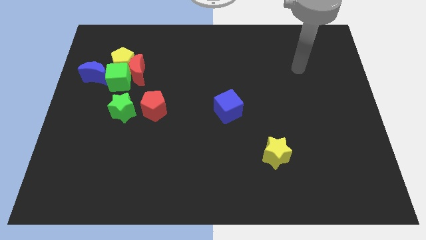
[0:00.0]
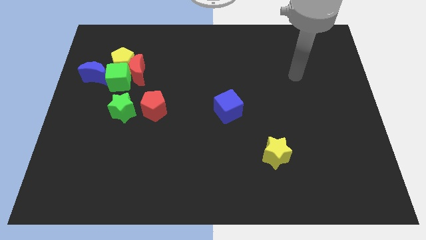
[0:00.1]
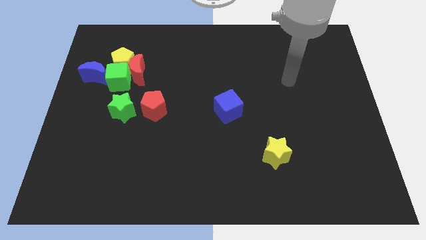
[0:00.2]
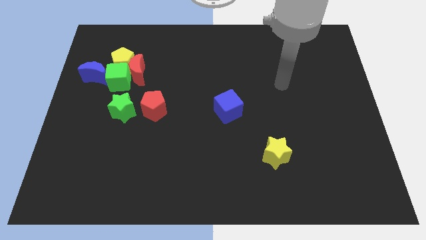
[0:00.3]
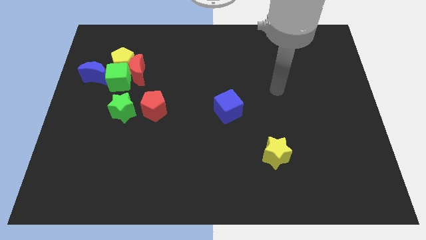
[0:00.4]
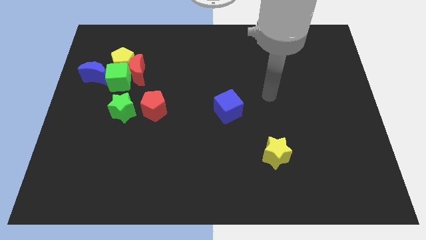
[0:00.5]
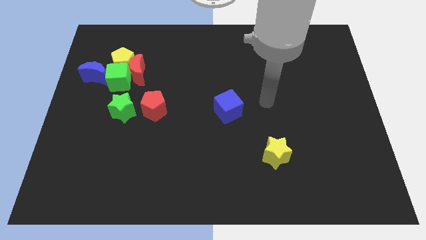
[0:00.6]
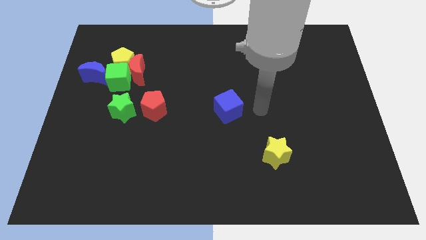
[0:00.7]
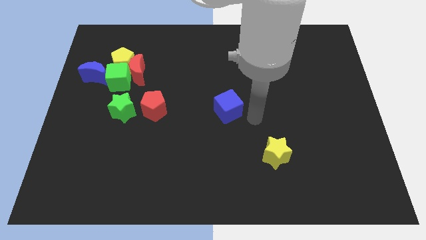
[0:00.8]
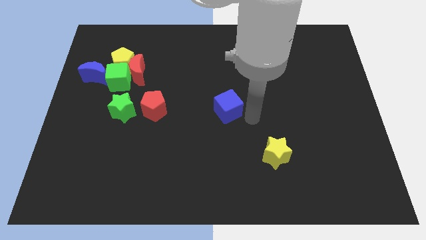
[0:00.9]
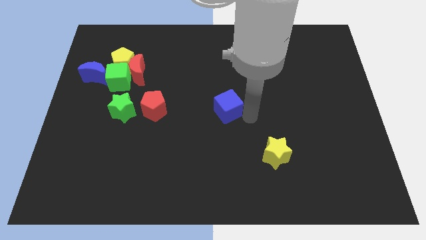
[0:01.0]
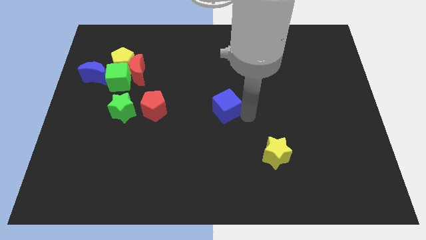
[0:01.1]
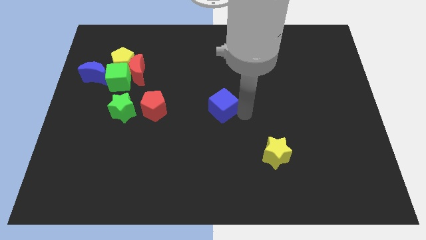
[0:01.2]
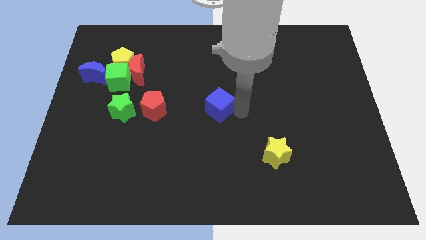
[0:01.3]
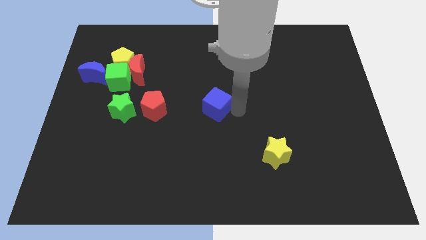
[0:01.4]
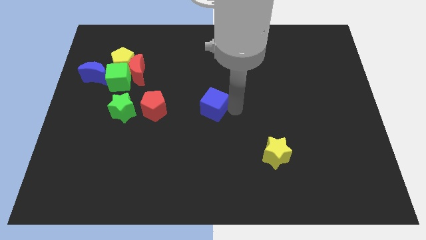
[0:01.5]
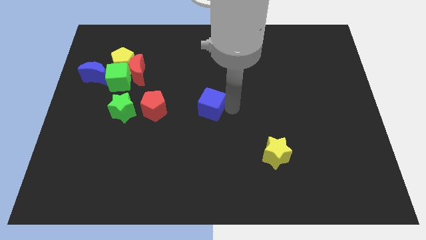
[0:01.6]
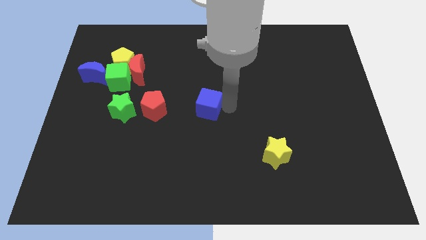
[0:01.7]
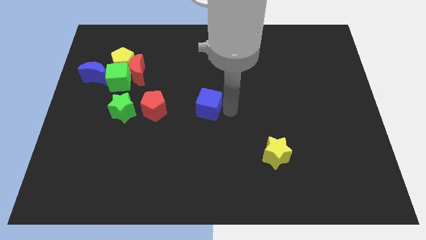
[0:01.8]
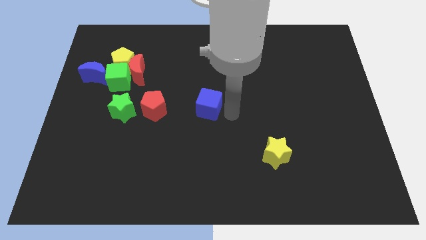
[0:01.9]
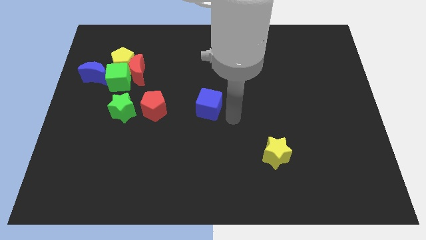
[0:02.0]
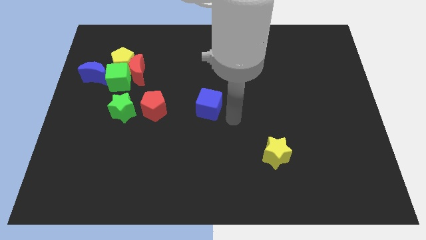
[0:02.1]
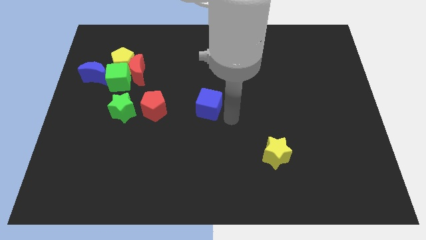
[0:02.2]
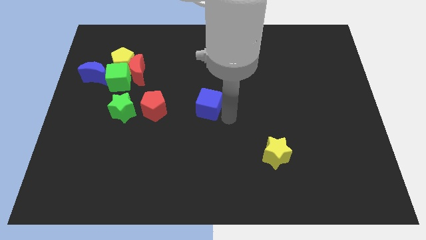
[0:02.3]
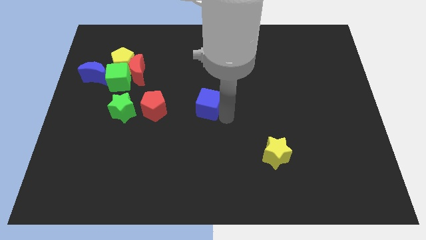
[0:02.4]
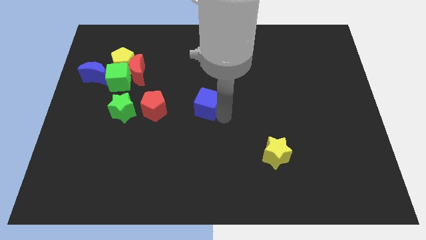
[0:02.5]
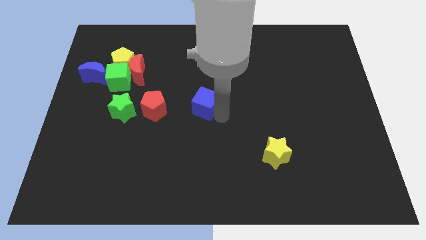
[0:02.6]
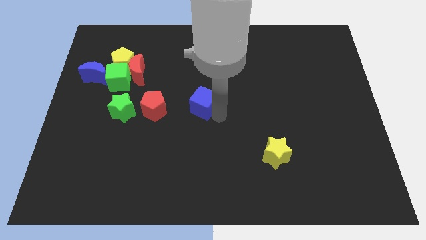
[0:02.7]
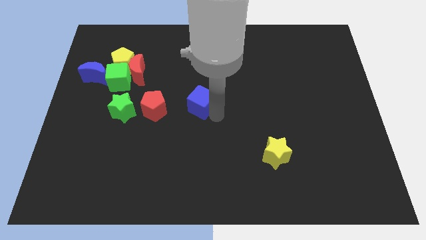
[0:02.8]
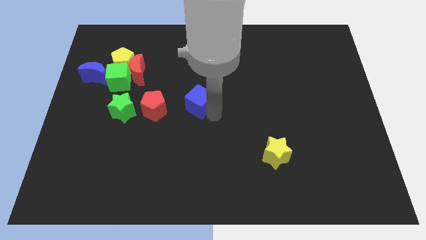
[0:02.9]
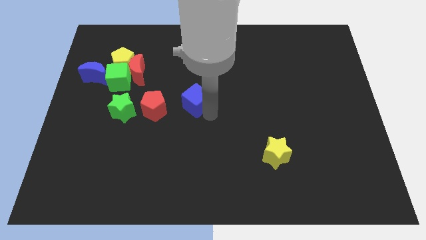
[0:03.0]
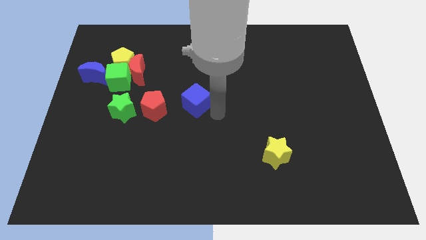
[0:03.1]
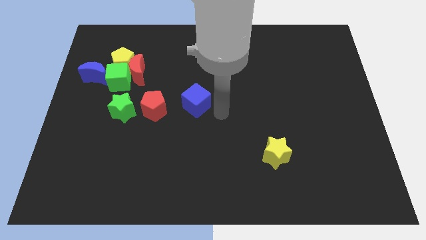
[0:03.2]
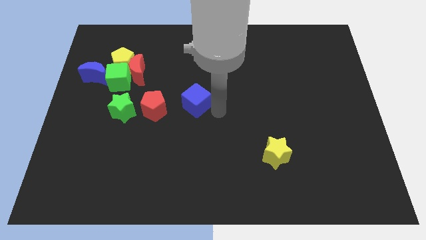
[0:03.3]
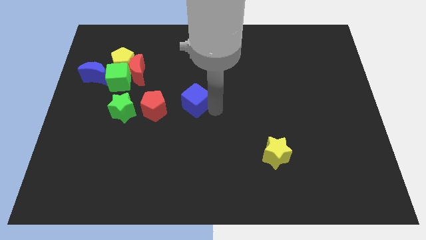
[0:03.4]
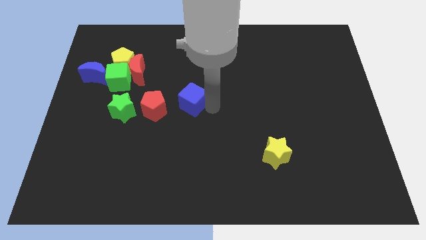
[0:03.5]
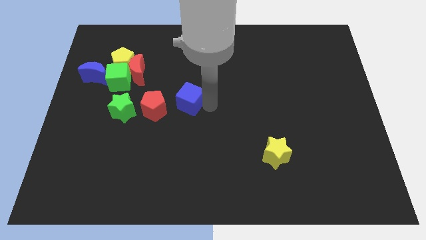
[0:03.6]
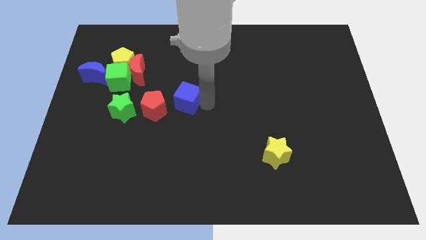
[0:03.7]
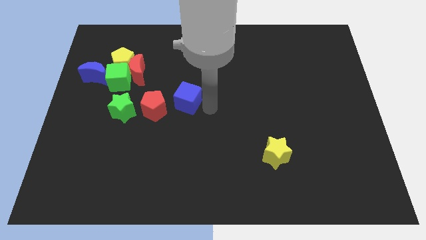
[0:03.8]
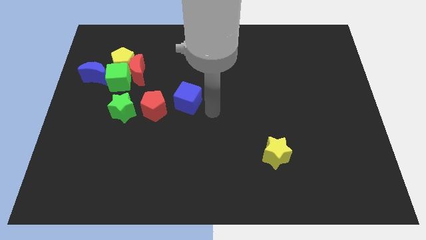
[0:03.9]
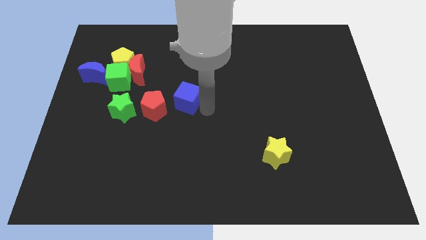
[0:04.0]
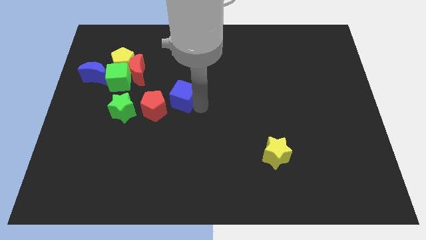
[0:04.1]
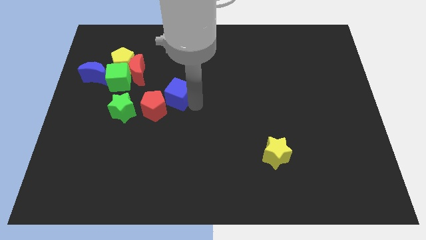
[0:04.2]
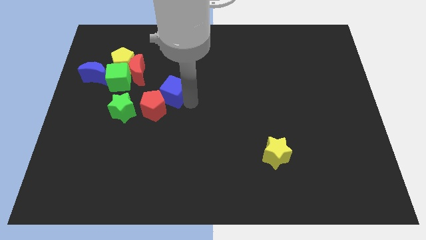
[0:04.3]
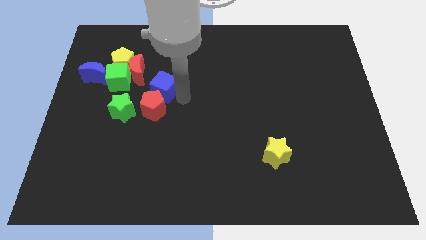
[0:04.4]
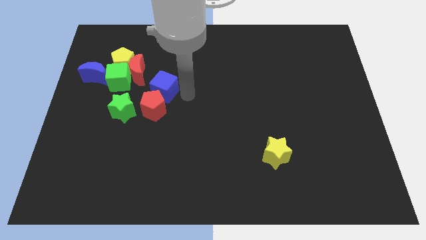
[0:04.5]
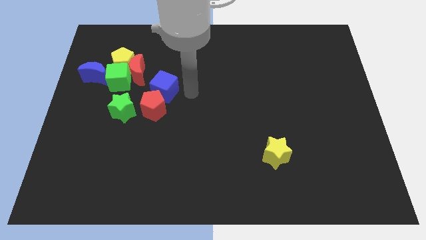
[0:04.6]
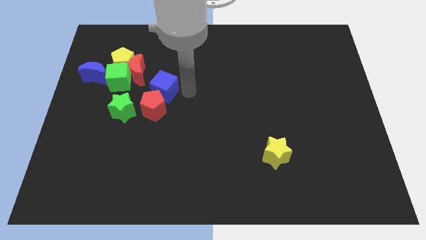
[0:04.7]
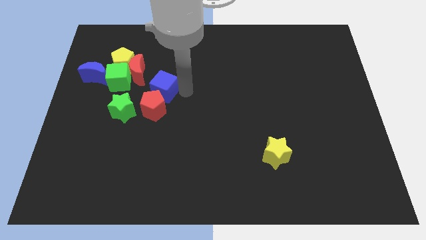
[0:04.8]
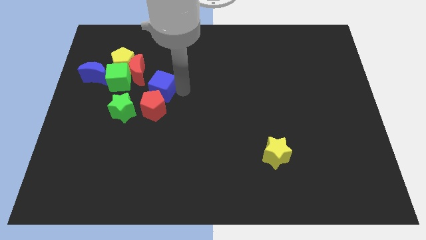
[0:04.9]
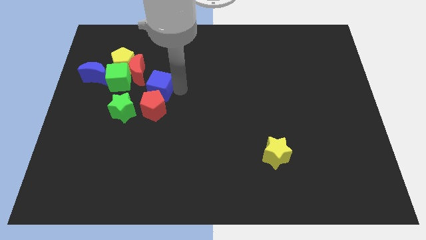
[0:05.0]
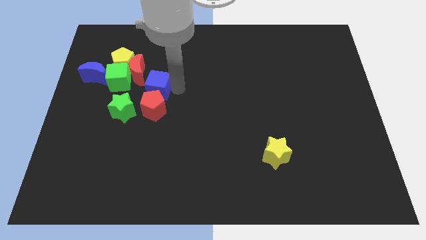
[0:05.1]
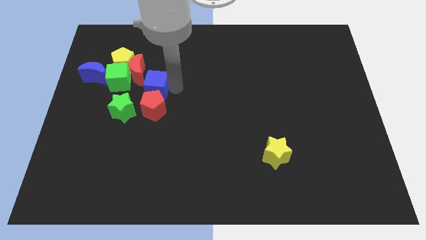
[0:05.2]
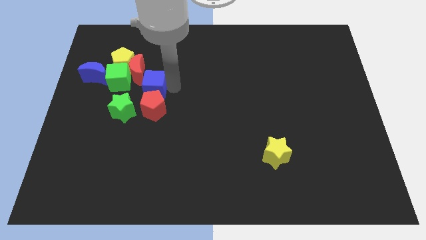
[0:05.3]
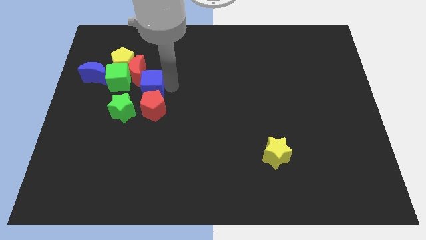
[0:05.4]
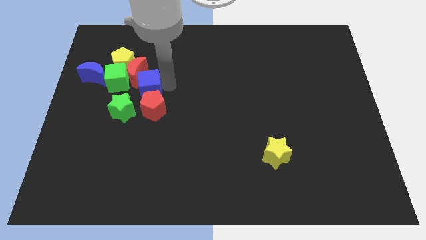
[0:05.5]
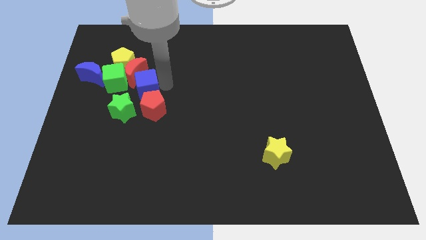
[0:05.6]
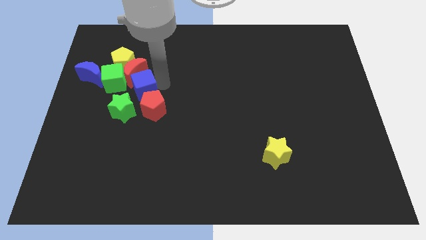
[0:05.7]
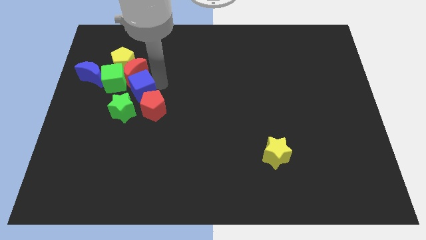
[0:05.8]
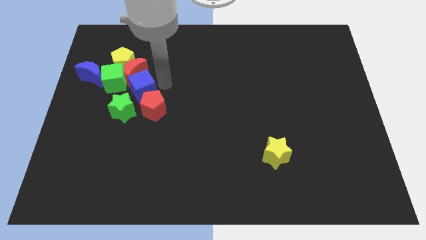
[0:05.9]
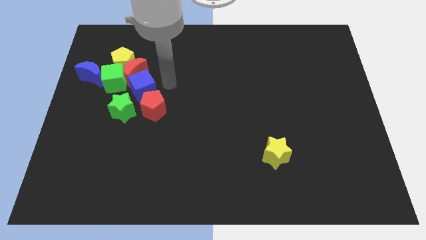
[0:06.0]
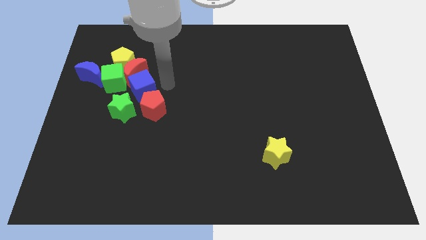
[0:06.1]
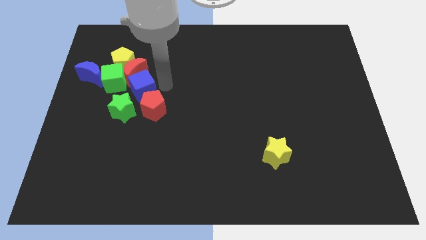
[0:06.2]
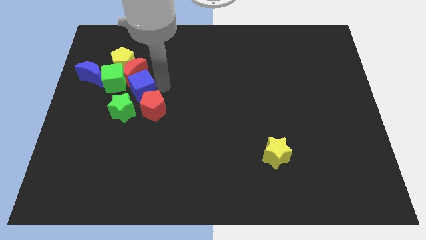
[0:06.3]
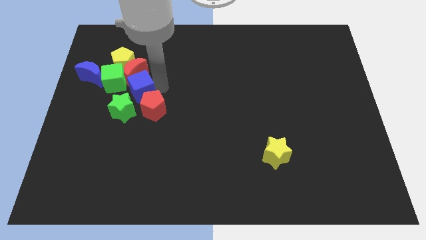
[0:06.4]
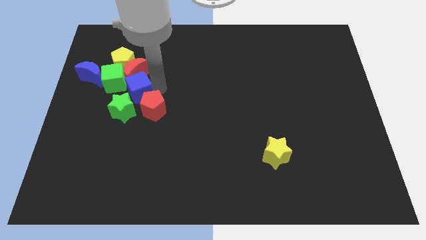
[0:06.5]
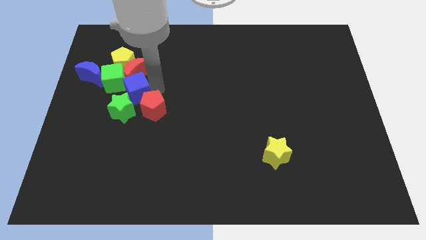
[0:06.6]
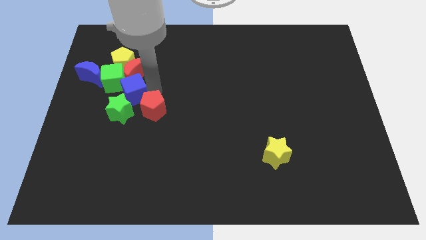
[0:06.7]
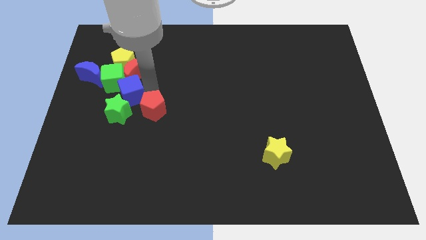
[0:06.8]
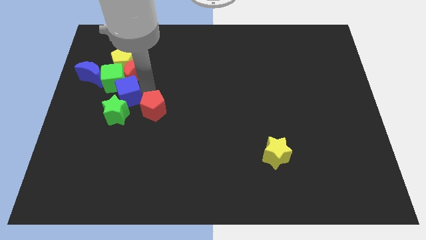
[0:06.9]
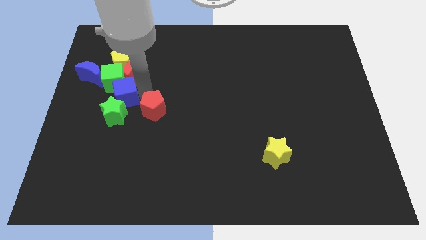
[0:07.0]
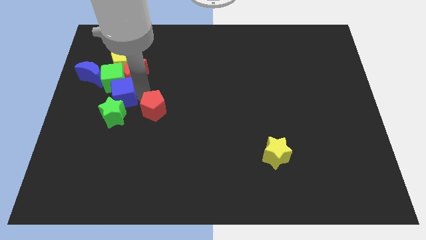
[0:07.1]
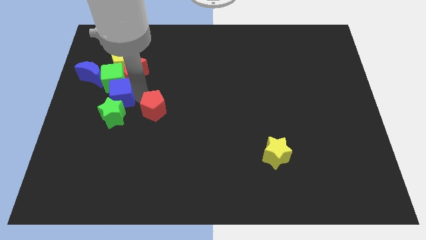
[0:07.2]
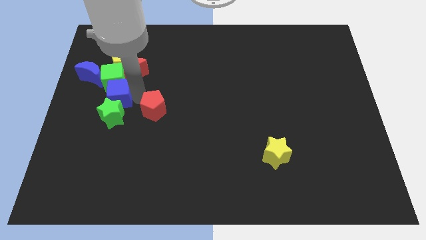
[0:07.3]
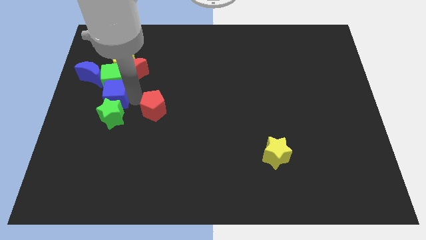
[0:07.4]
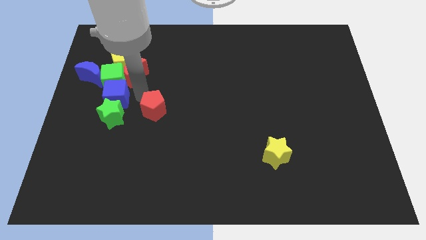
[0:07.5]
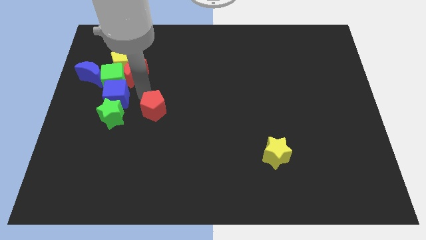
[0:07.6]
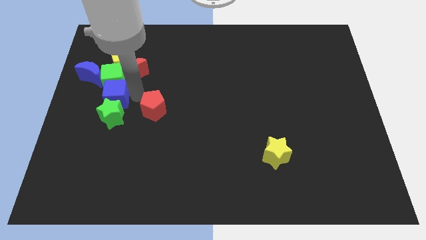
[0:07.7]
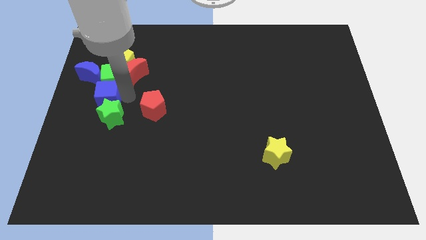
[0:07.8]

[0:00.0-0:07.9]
push the blue cube to the center left
